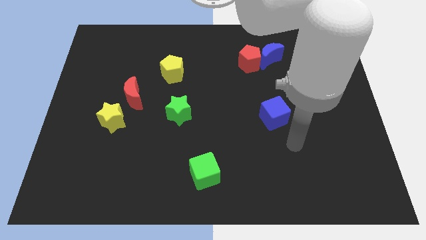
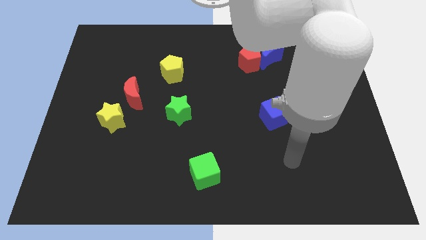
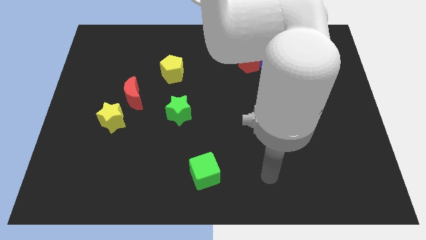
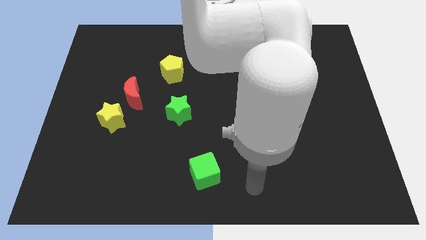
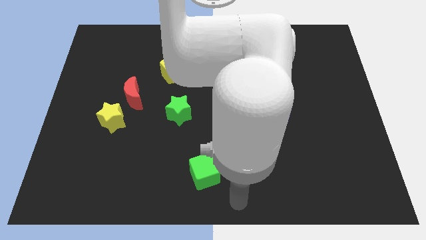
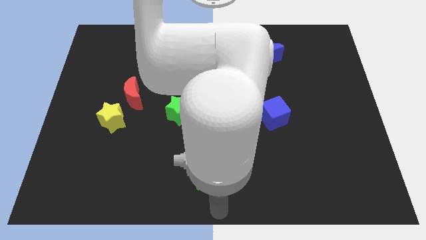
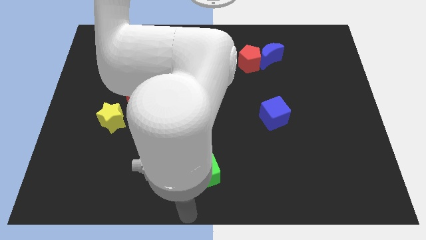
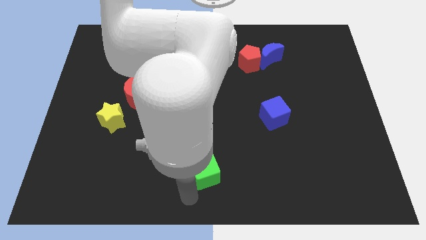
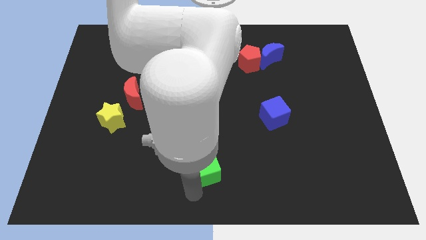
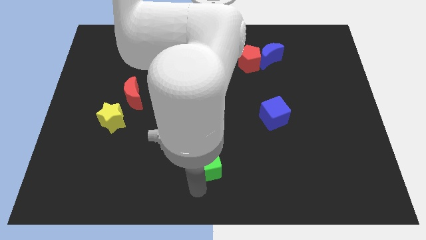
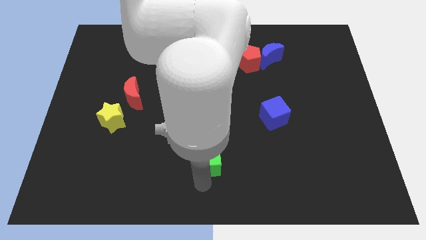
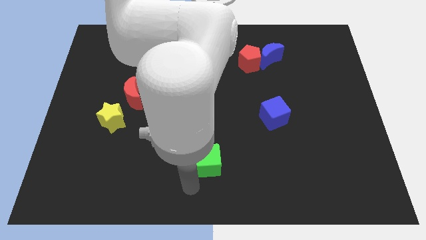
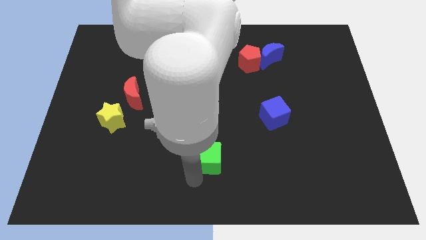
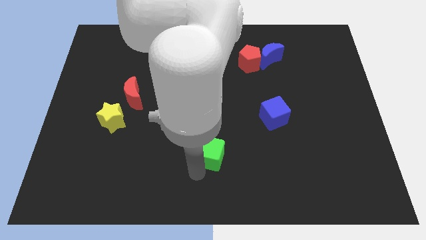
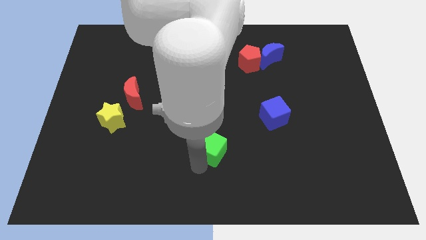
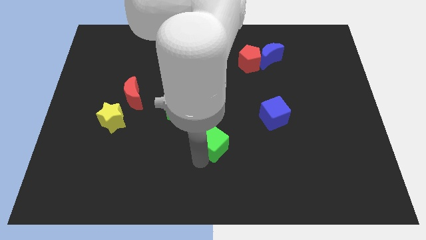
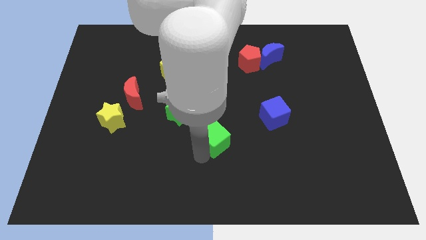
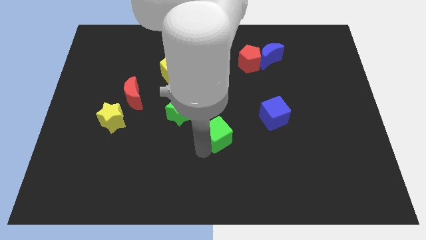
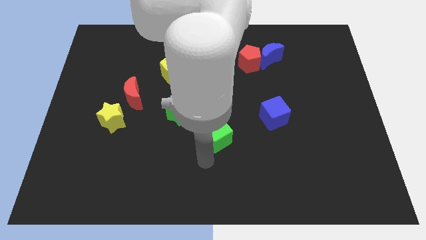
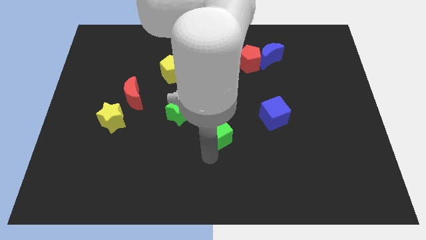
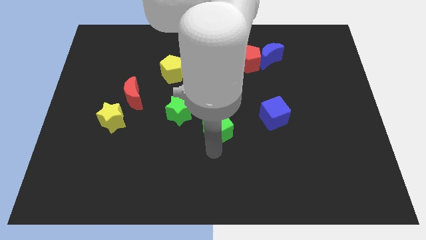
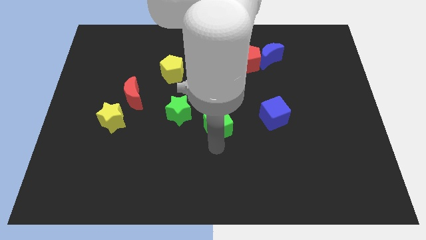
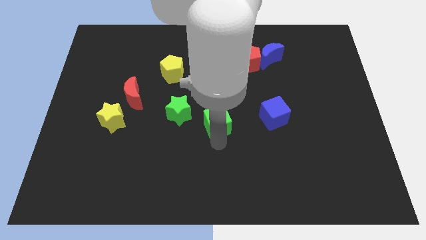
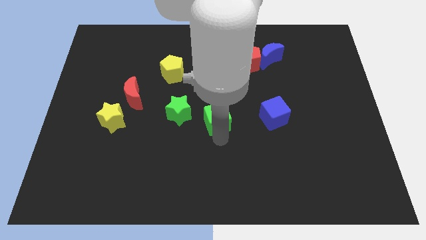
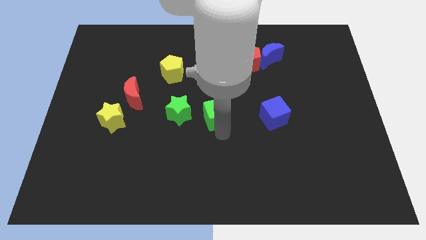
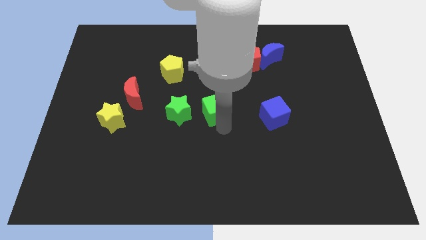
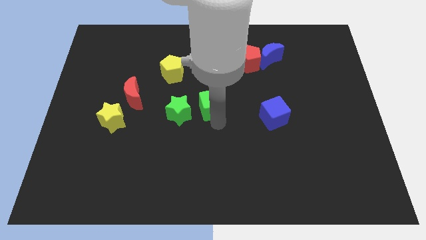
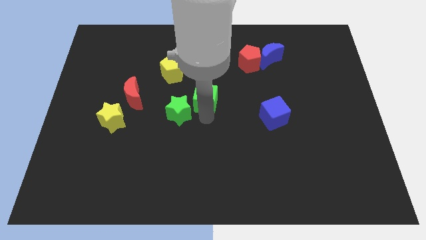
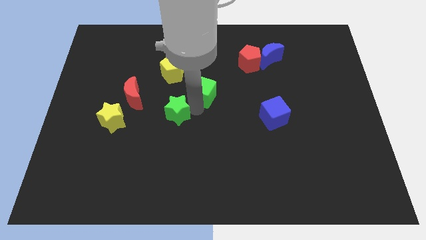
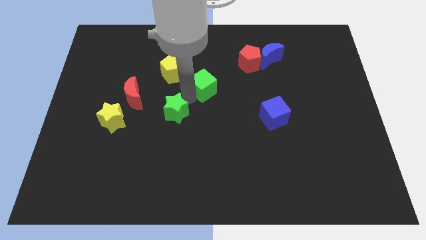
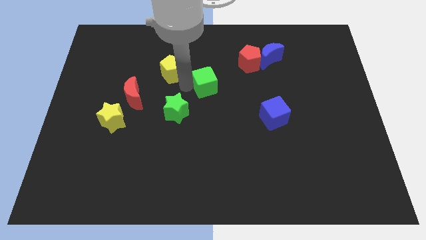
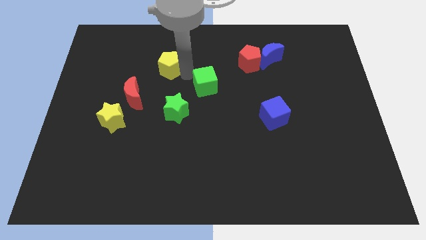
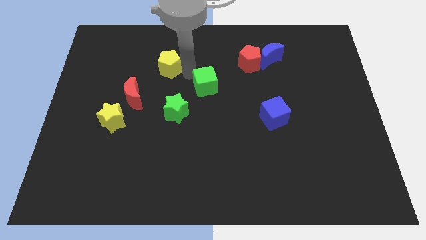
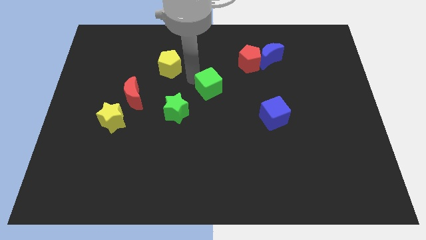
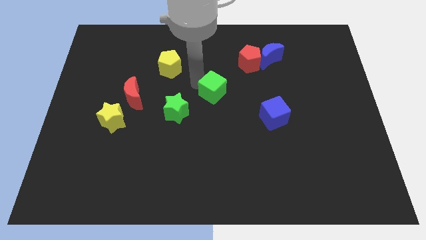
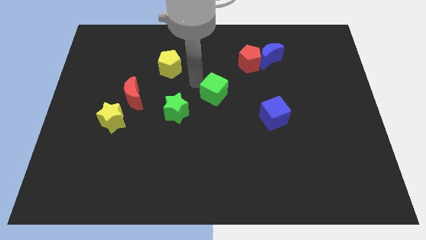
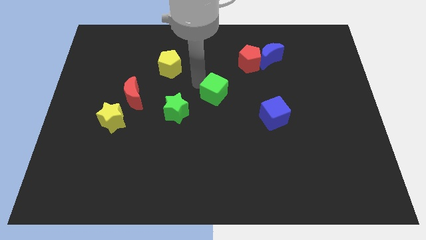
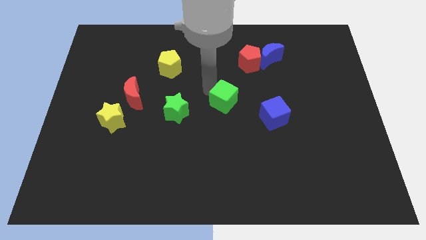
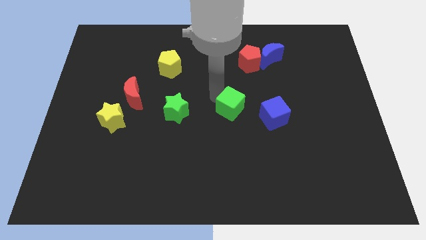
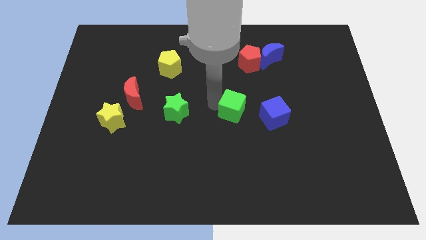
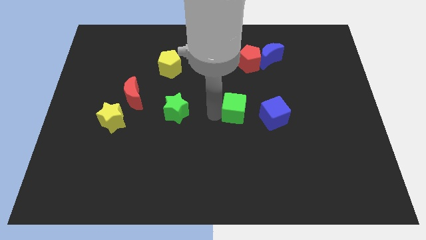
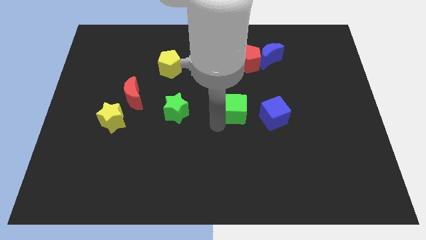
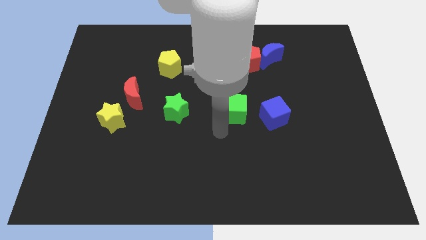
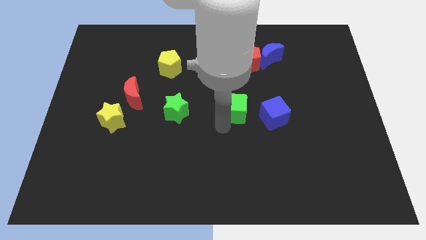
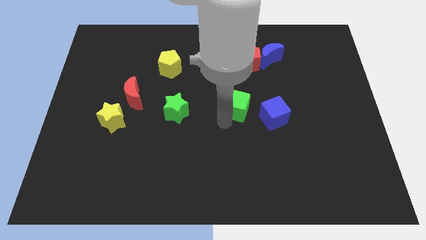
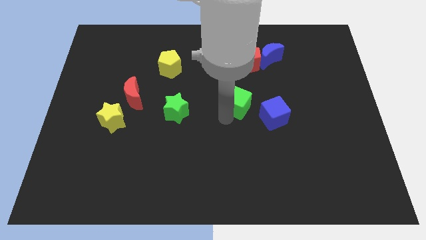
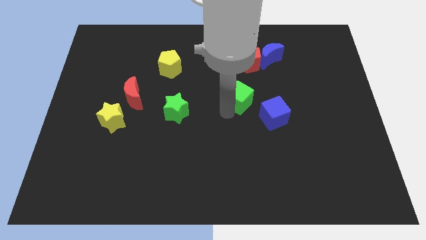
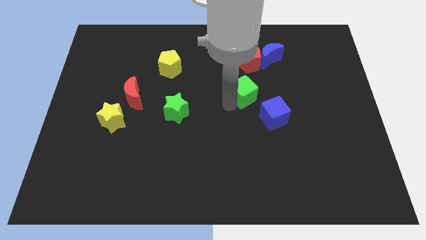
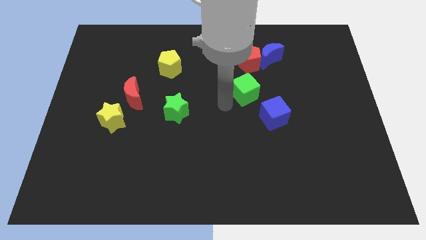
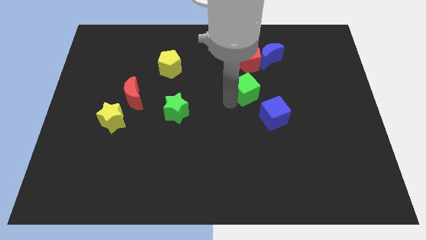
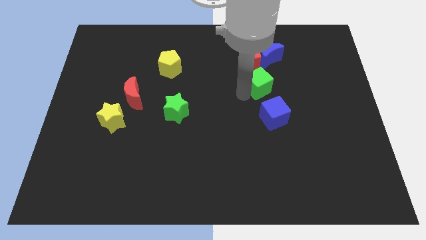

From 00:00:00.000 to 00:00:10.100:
push the green cube to the bottom right side of the red pentagon

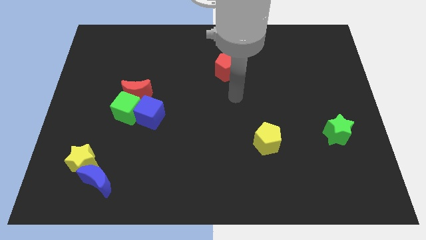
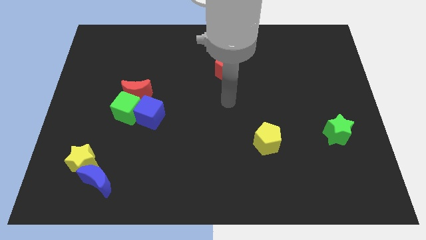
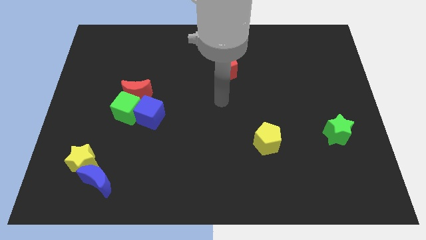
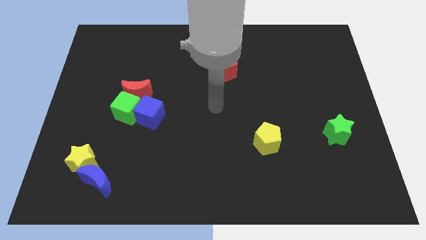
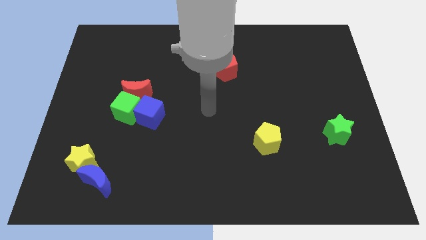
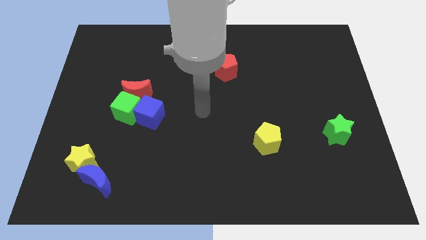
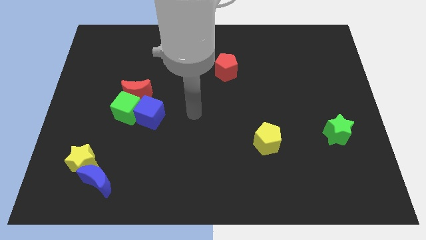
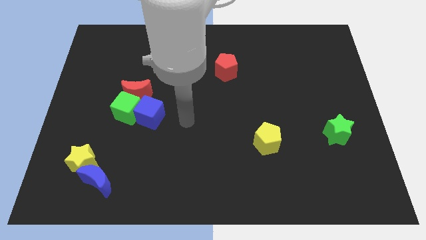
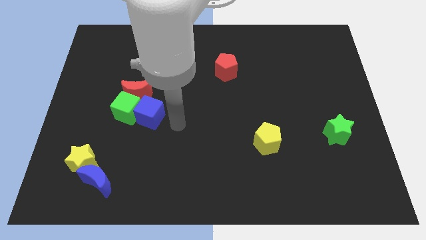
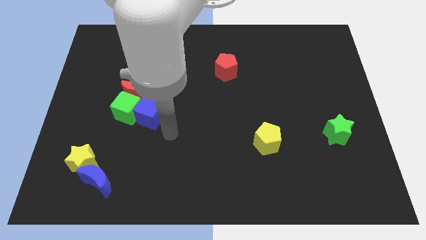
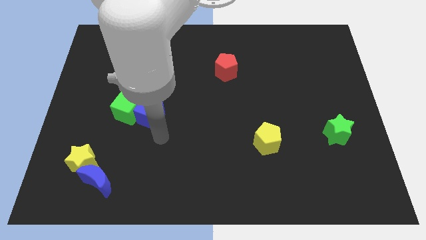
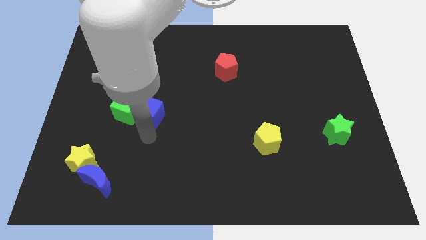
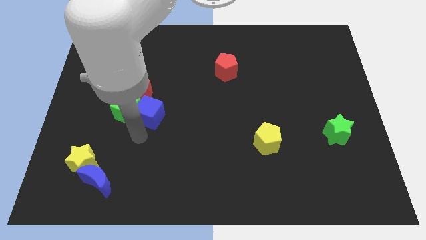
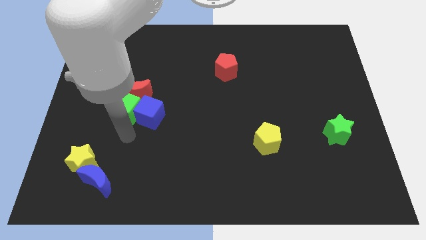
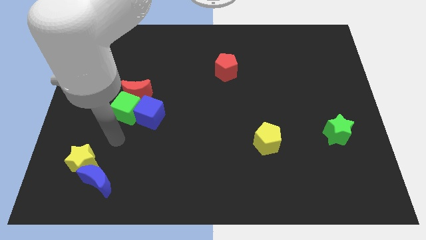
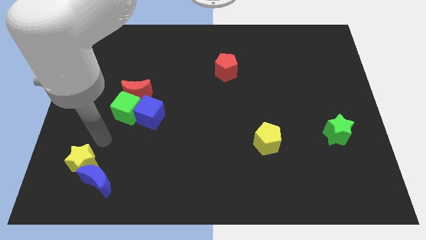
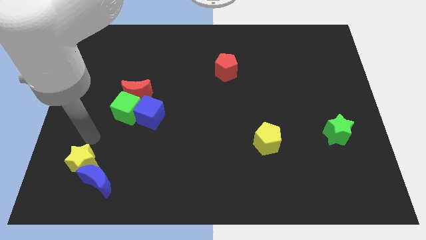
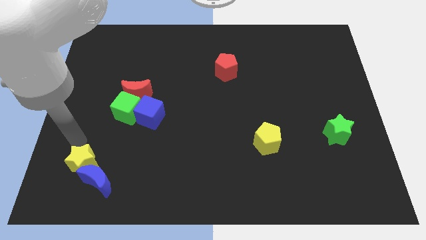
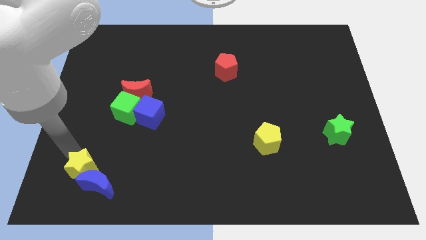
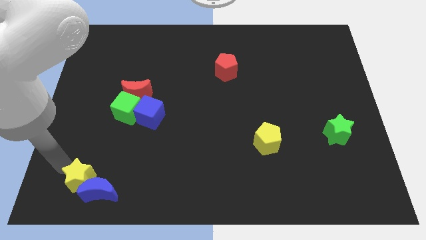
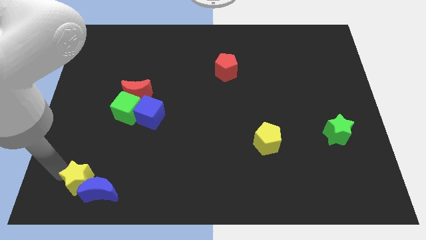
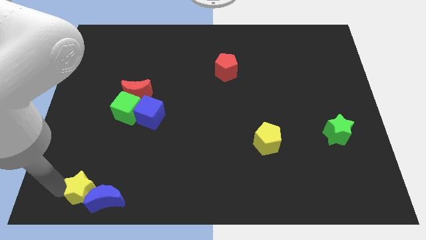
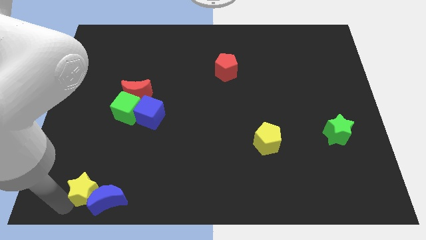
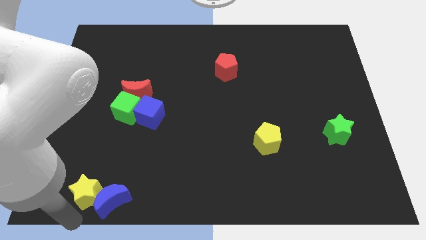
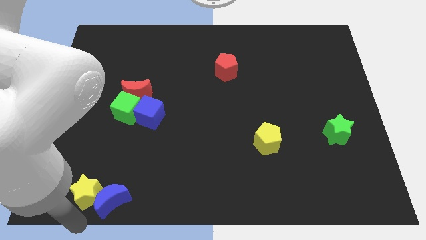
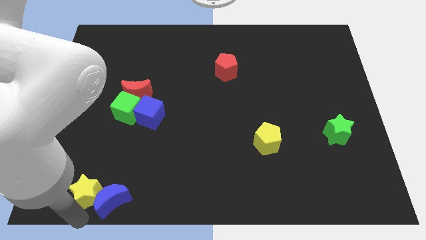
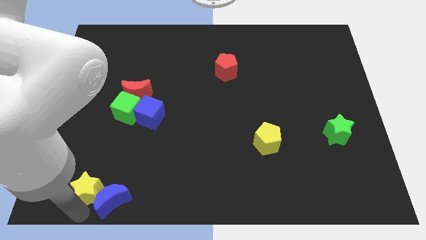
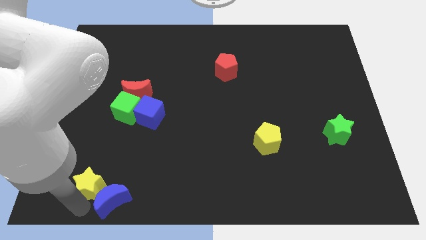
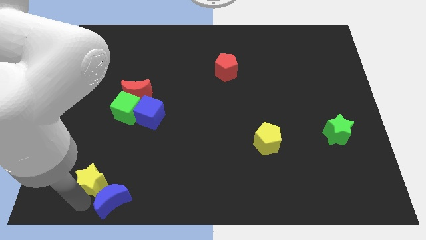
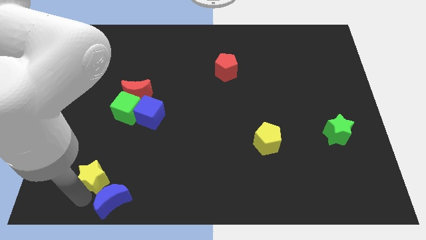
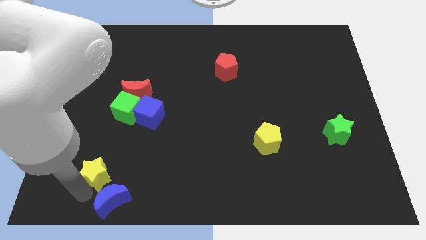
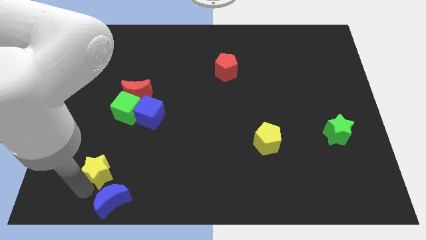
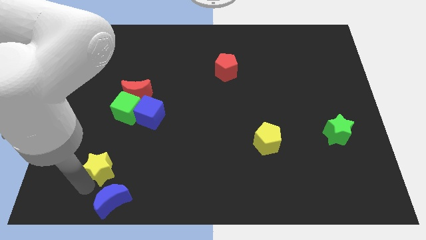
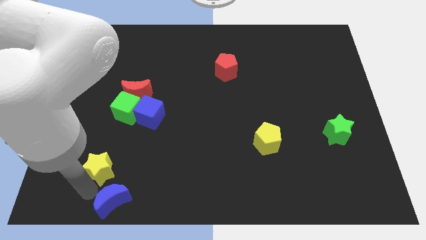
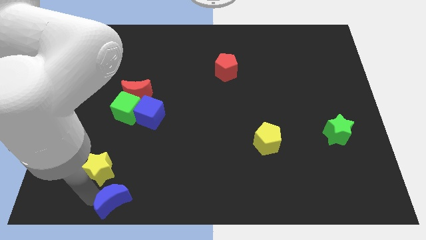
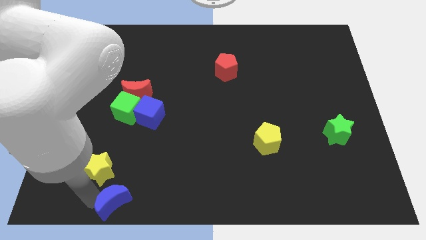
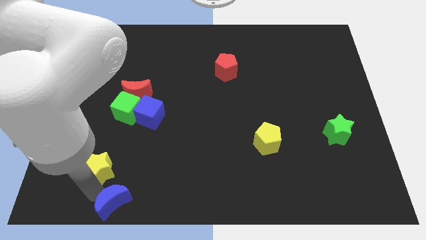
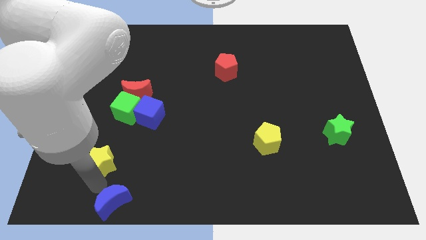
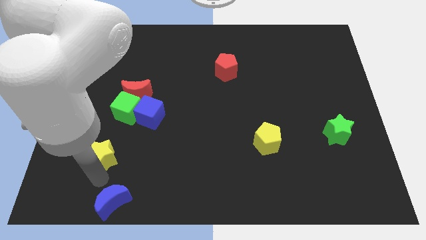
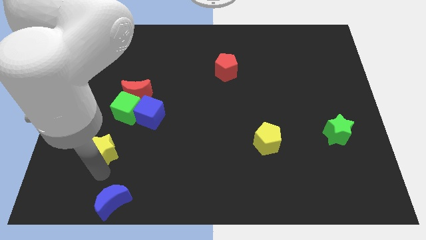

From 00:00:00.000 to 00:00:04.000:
slide the yellow star diagonally down and to the left of the blue cube
